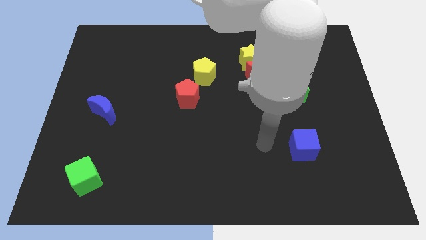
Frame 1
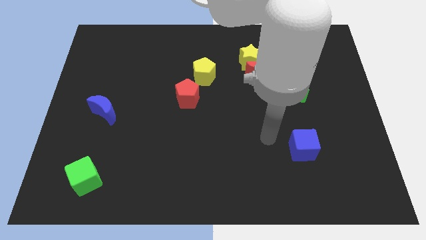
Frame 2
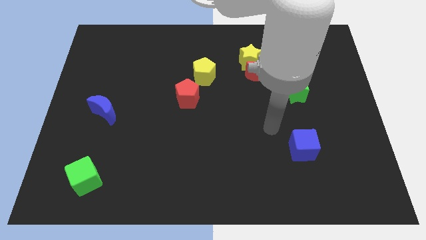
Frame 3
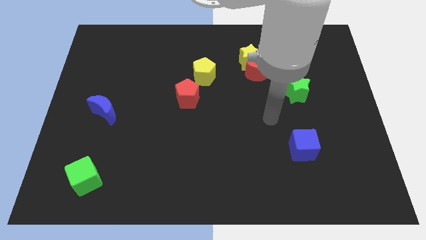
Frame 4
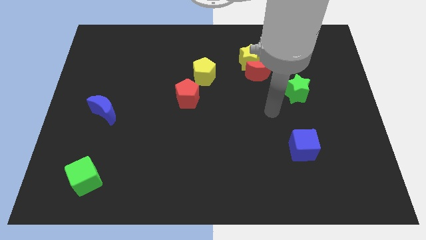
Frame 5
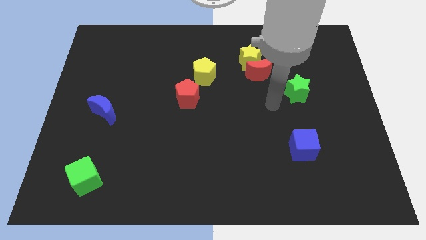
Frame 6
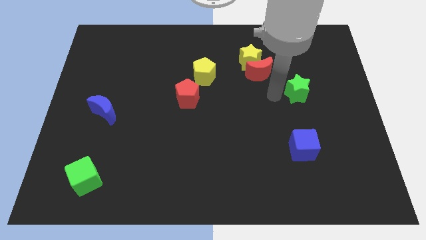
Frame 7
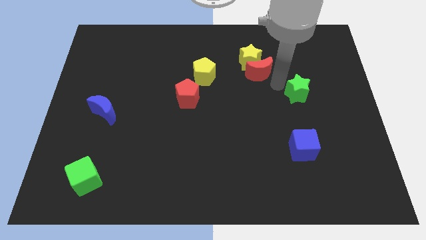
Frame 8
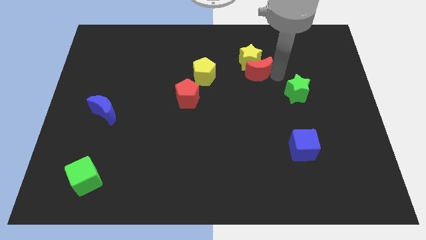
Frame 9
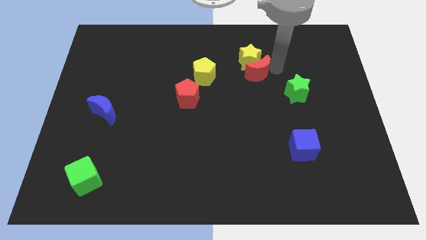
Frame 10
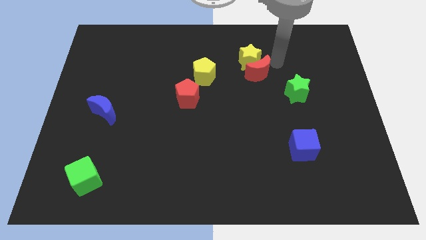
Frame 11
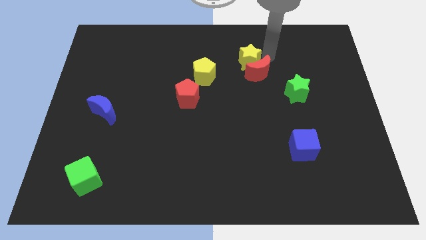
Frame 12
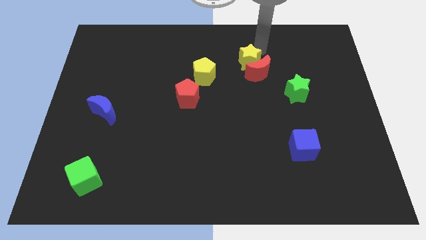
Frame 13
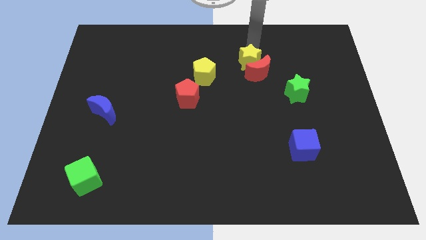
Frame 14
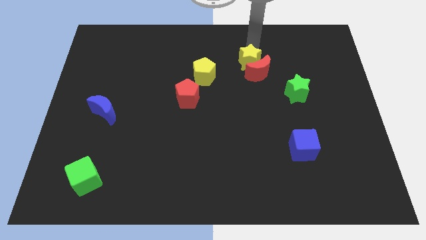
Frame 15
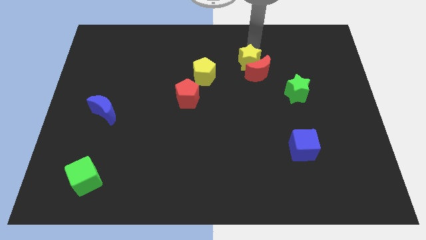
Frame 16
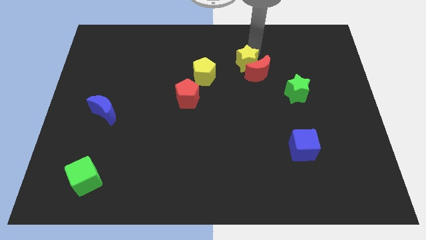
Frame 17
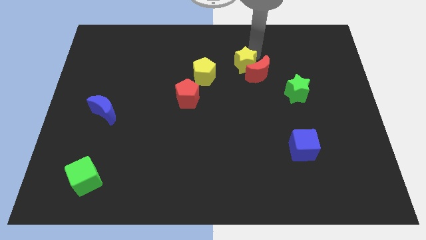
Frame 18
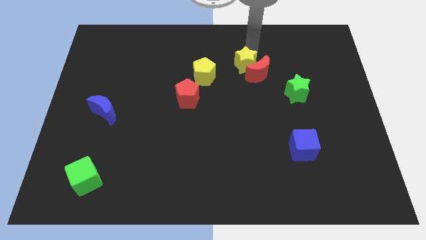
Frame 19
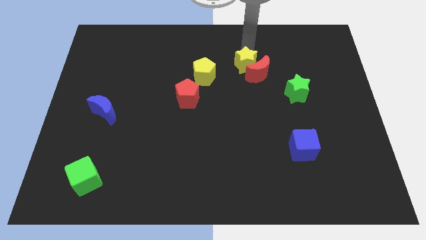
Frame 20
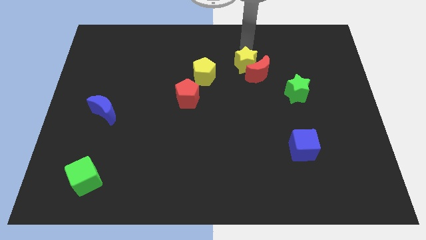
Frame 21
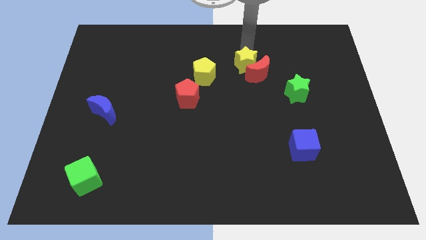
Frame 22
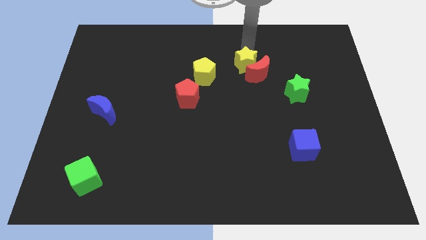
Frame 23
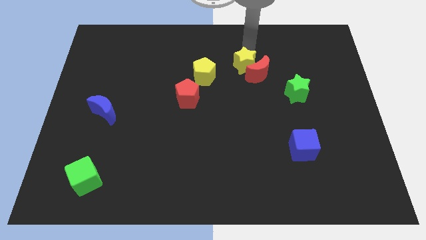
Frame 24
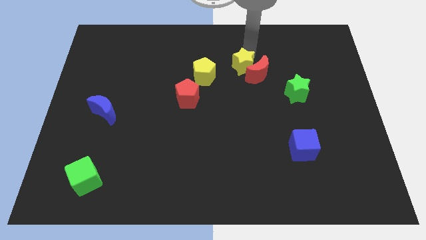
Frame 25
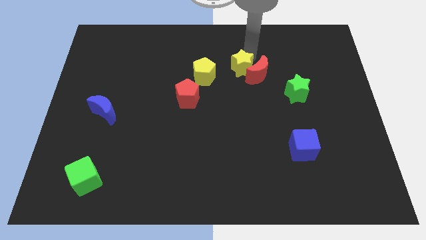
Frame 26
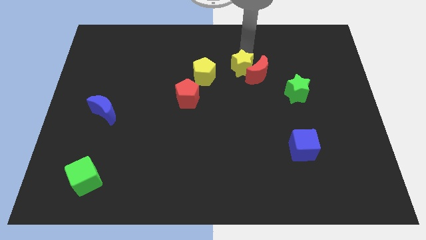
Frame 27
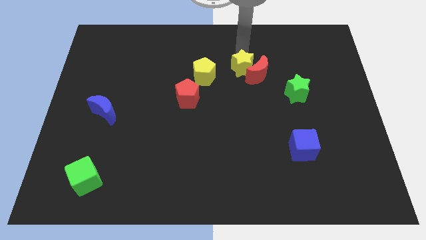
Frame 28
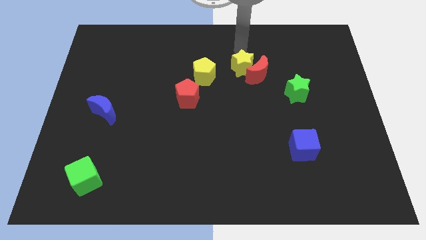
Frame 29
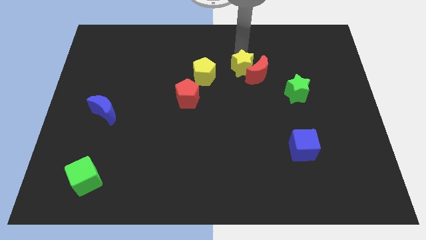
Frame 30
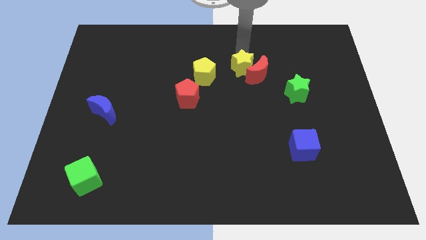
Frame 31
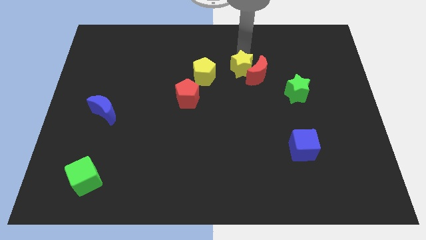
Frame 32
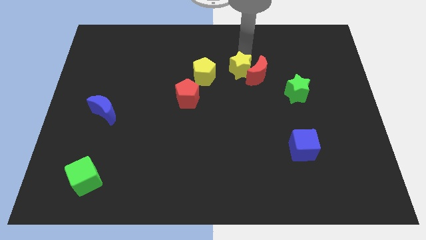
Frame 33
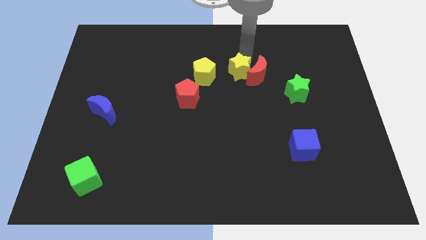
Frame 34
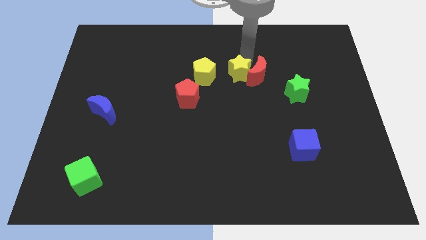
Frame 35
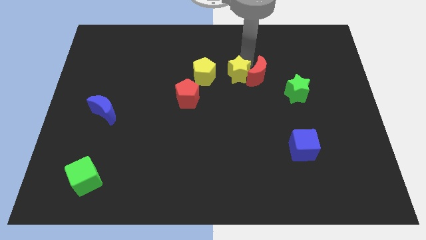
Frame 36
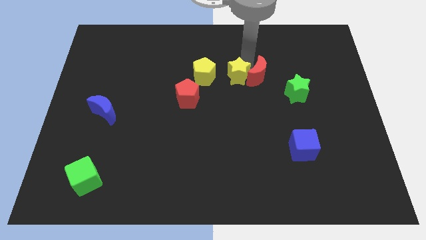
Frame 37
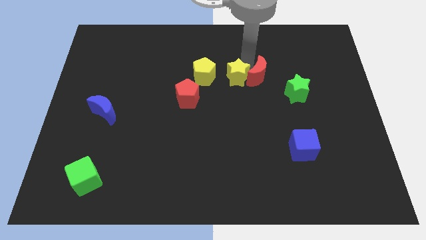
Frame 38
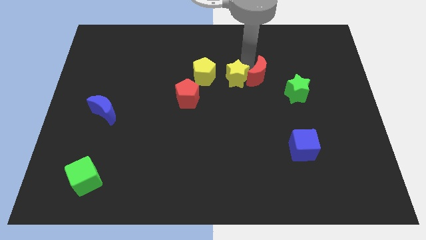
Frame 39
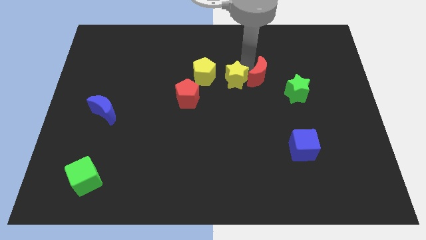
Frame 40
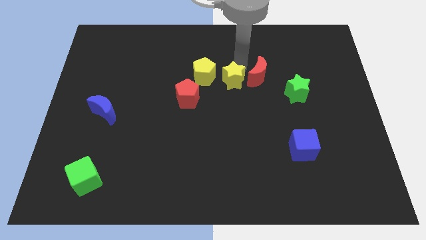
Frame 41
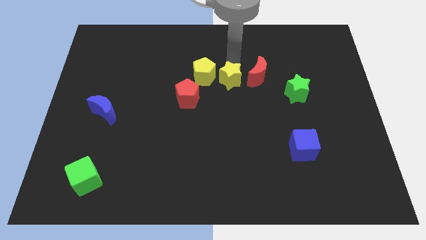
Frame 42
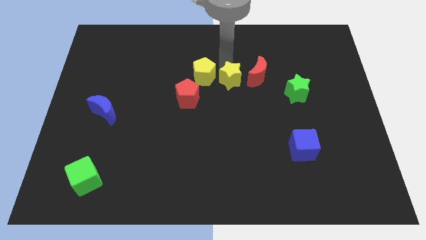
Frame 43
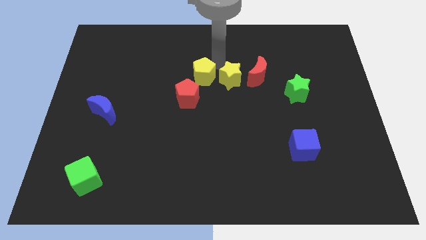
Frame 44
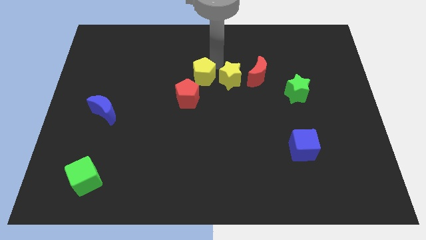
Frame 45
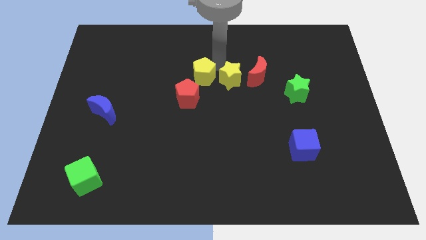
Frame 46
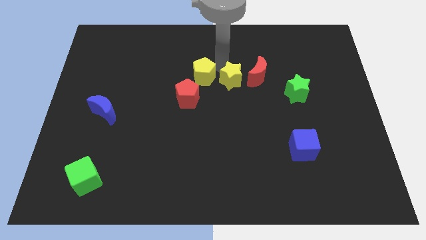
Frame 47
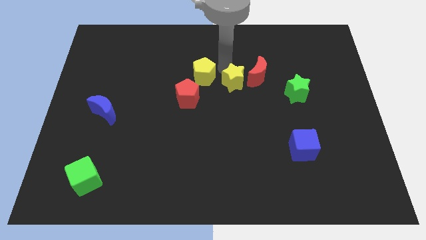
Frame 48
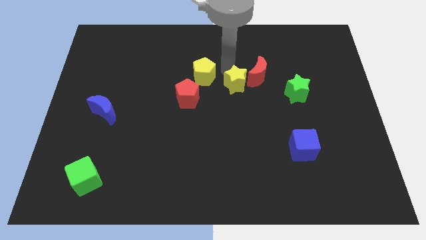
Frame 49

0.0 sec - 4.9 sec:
move the yellow star down a little

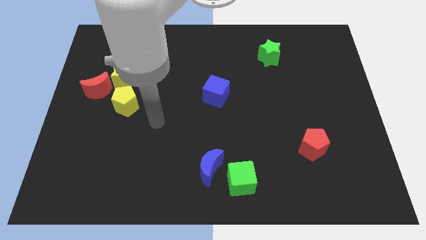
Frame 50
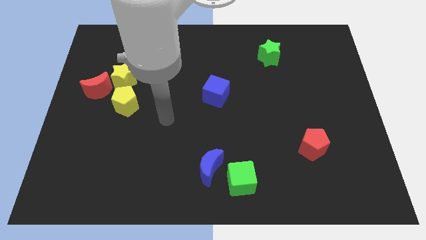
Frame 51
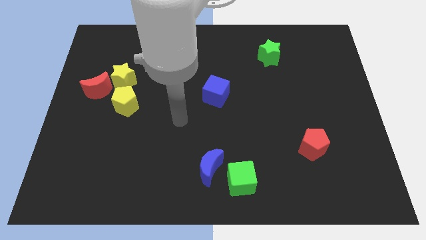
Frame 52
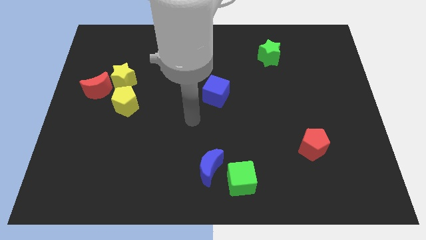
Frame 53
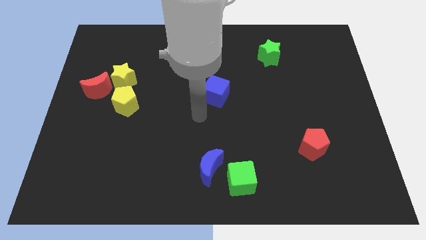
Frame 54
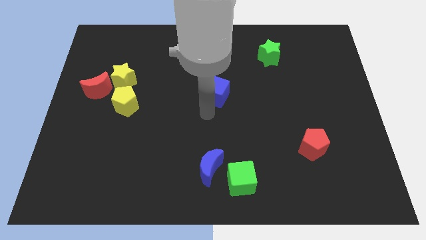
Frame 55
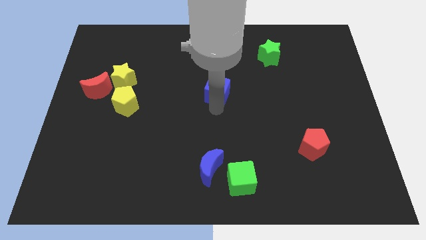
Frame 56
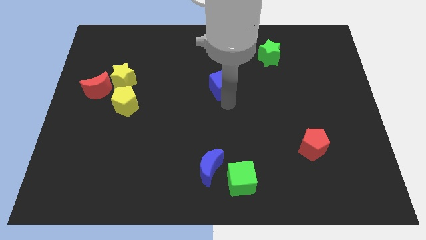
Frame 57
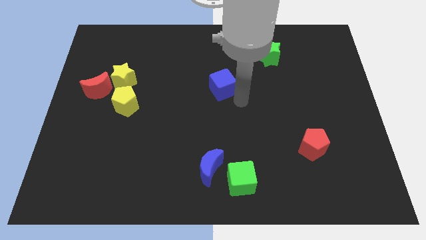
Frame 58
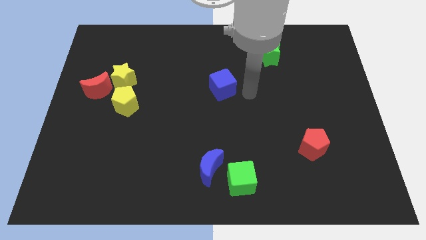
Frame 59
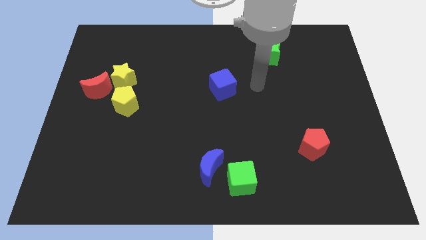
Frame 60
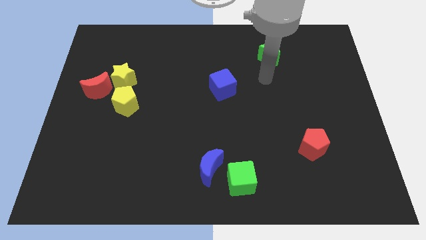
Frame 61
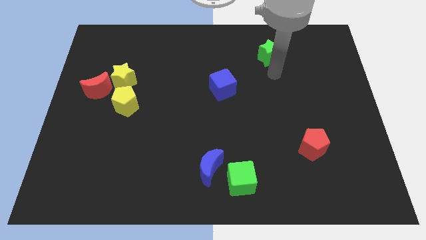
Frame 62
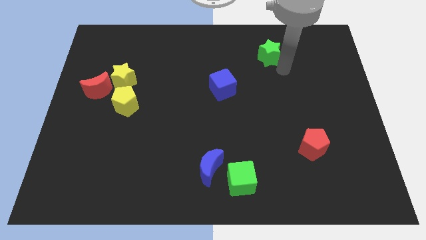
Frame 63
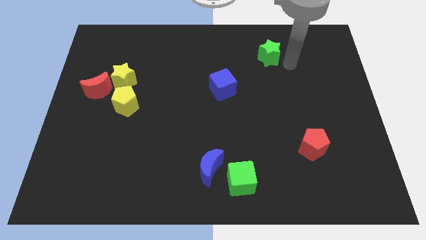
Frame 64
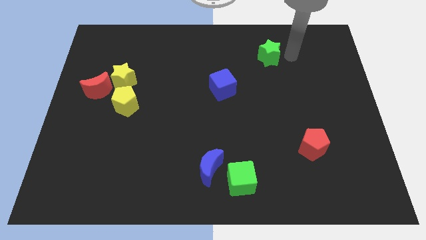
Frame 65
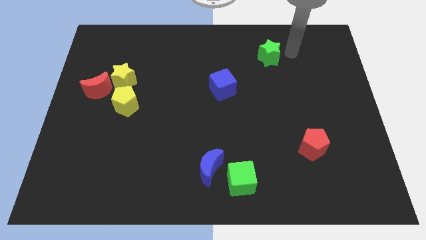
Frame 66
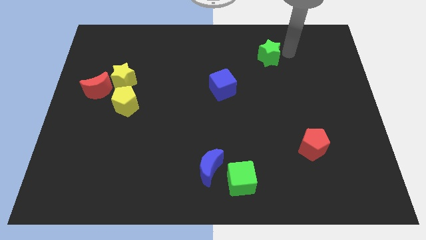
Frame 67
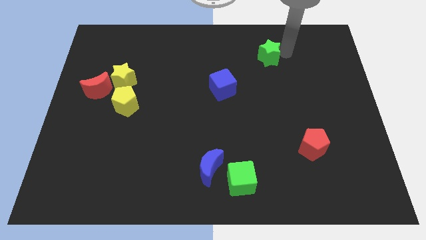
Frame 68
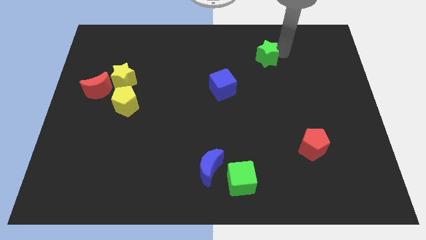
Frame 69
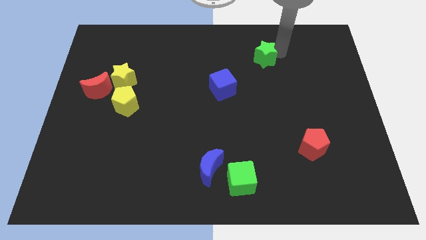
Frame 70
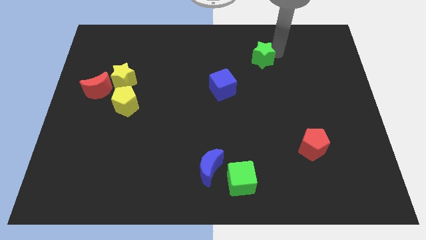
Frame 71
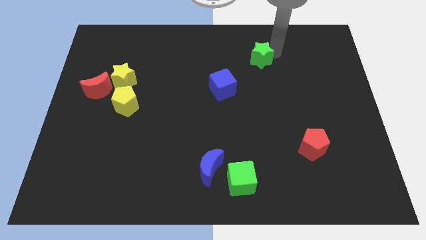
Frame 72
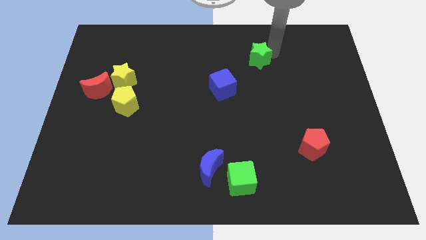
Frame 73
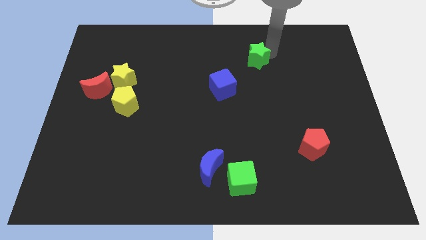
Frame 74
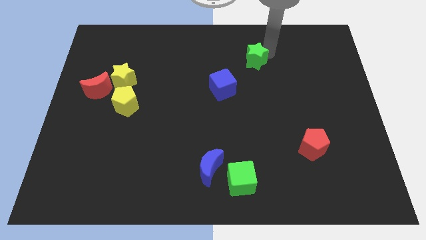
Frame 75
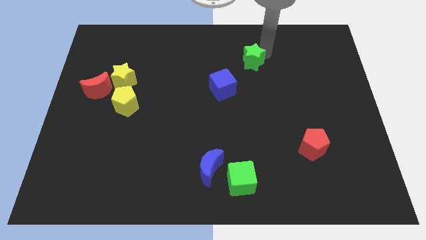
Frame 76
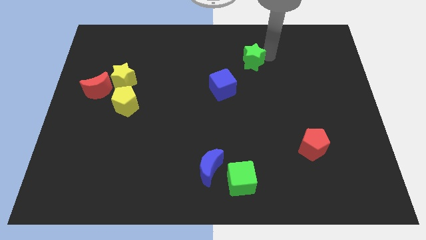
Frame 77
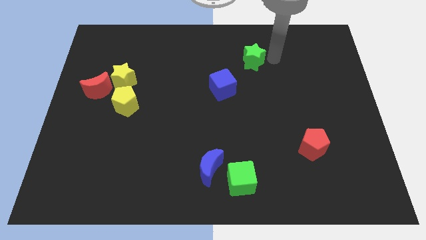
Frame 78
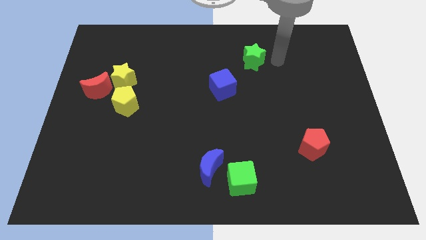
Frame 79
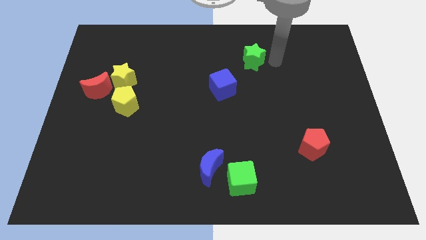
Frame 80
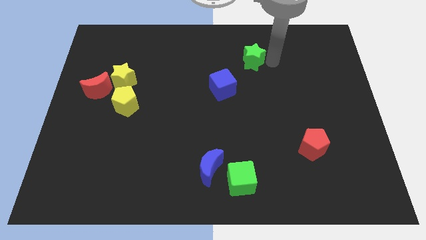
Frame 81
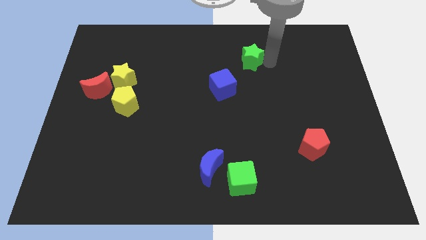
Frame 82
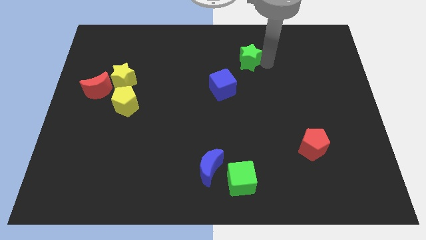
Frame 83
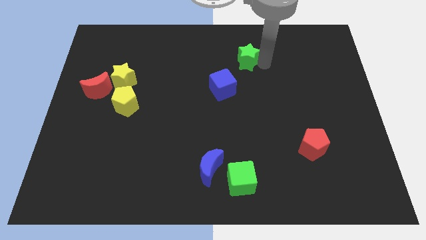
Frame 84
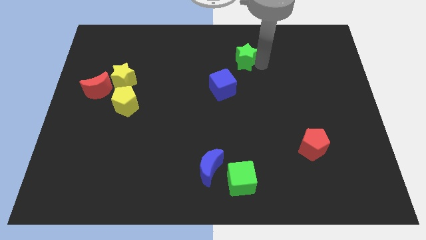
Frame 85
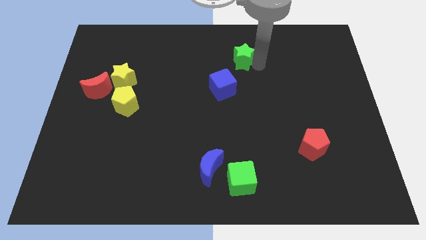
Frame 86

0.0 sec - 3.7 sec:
slightly slide the green star to the left
